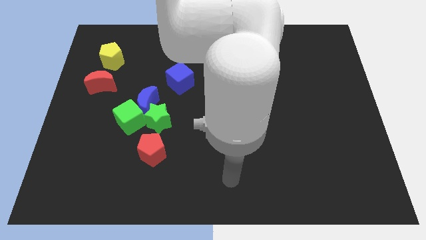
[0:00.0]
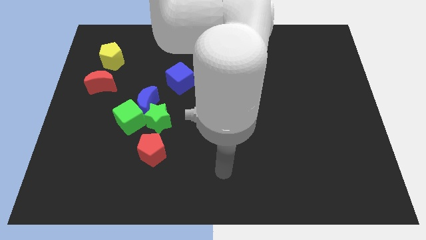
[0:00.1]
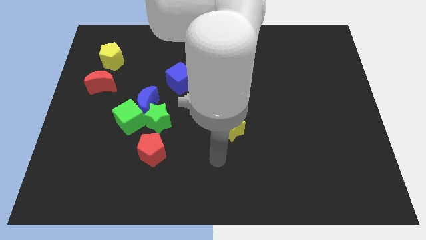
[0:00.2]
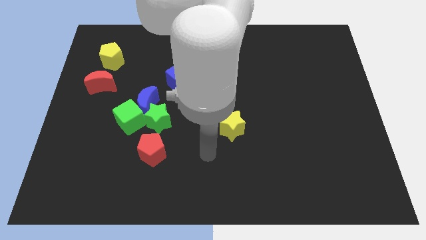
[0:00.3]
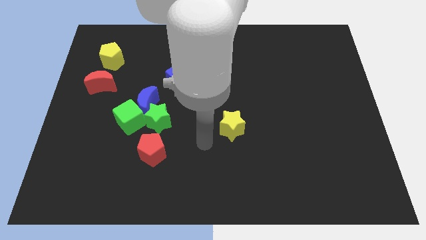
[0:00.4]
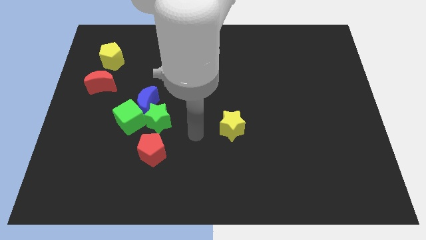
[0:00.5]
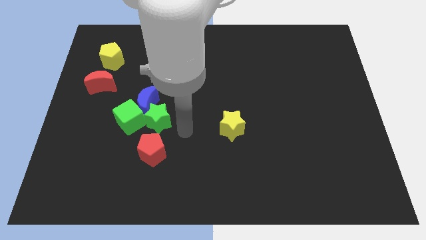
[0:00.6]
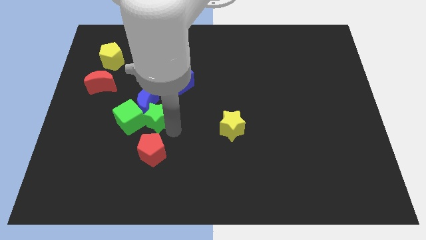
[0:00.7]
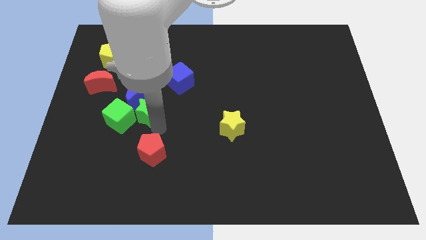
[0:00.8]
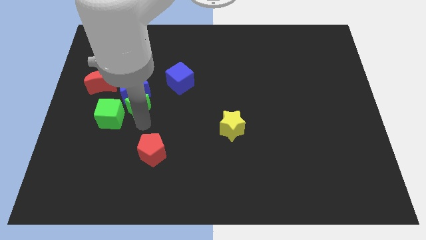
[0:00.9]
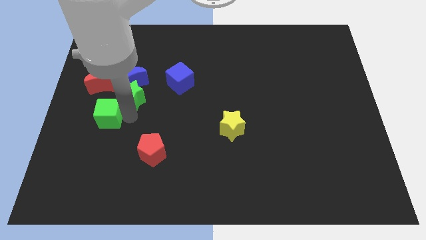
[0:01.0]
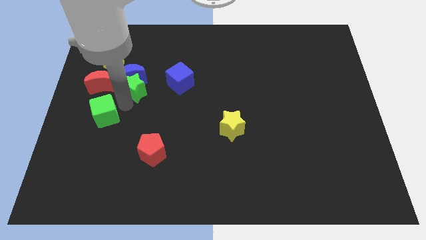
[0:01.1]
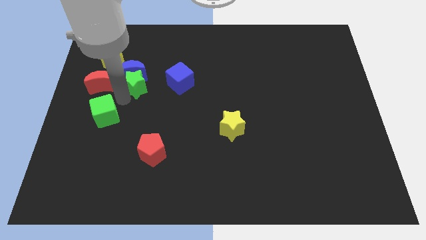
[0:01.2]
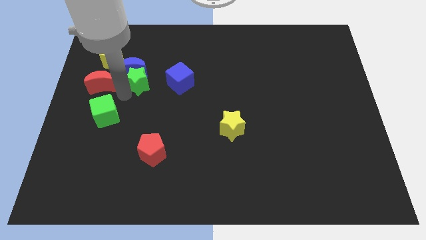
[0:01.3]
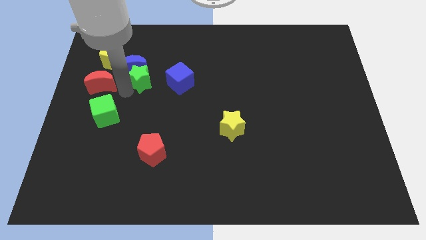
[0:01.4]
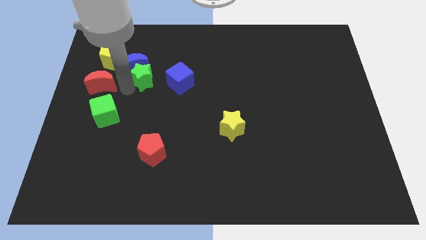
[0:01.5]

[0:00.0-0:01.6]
separate the blue moon from the green star and green cube

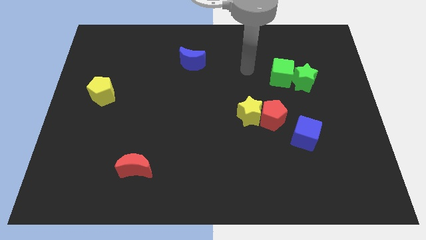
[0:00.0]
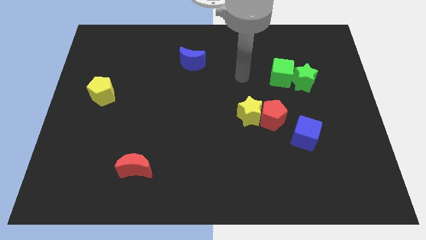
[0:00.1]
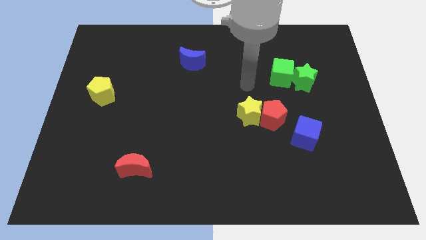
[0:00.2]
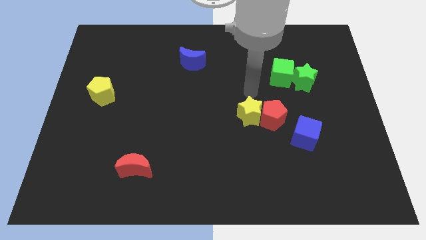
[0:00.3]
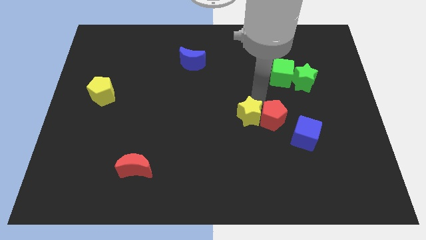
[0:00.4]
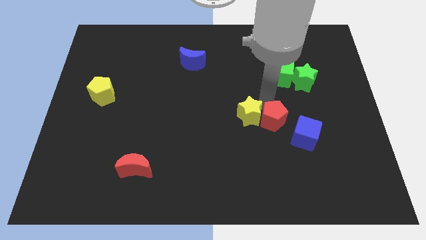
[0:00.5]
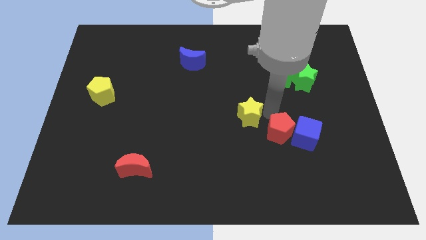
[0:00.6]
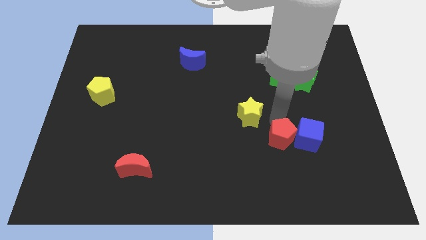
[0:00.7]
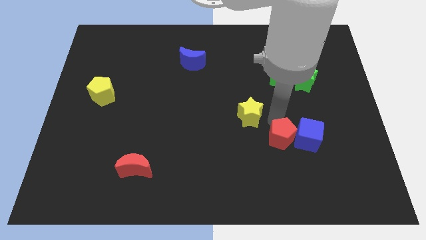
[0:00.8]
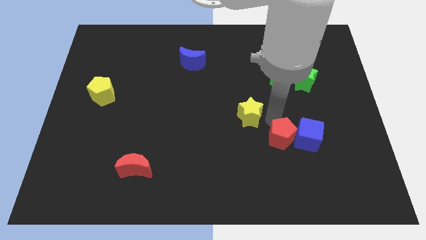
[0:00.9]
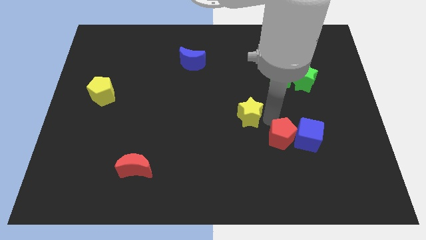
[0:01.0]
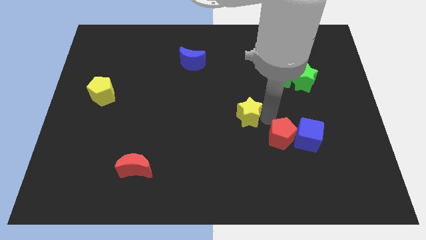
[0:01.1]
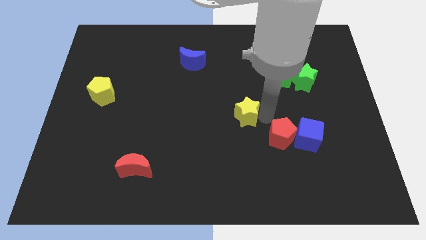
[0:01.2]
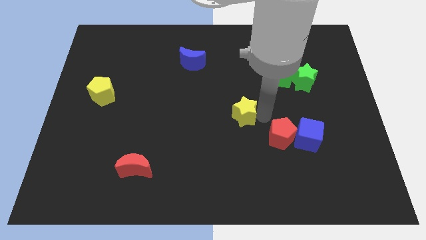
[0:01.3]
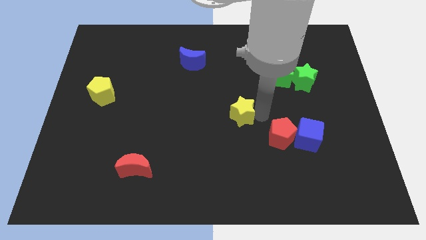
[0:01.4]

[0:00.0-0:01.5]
separate the yellow star from the red pentagon

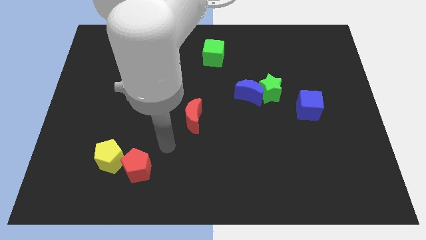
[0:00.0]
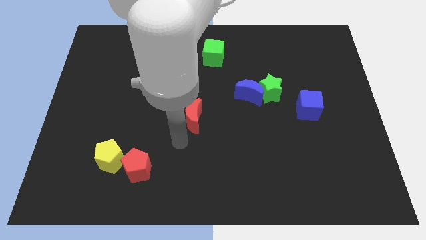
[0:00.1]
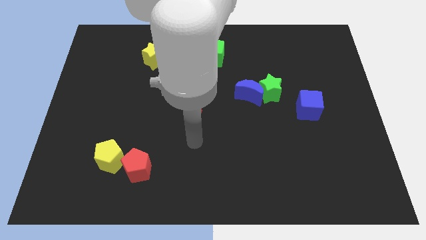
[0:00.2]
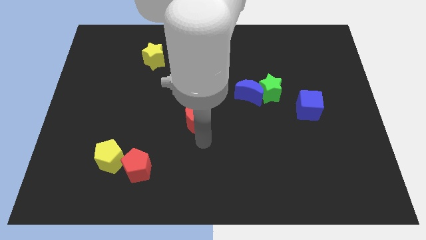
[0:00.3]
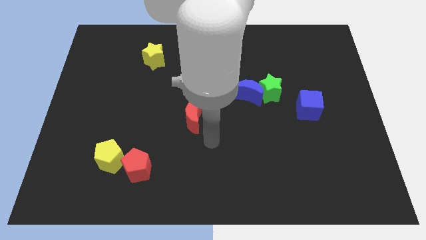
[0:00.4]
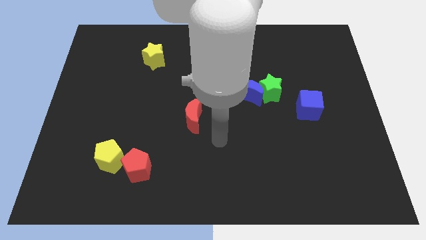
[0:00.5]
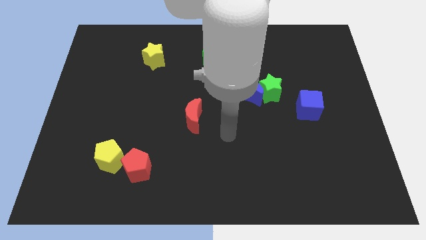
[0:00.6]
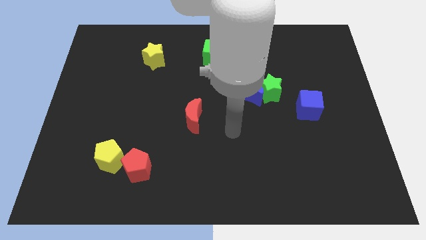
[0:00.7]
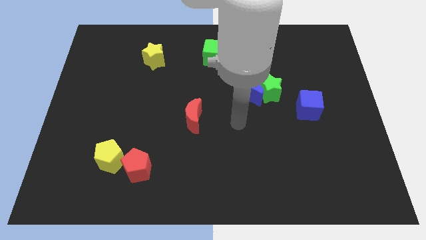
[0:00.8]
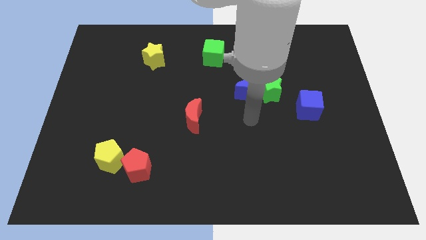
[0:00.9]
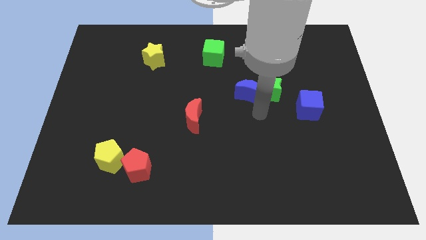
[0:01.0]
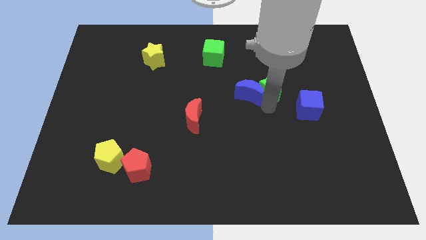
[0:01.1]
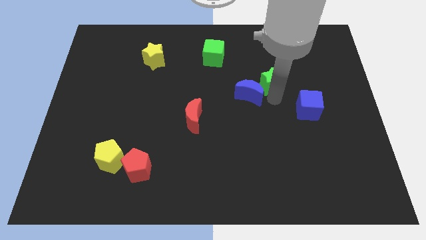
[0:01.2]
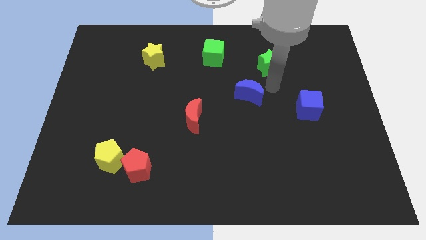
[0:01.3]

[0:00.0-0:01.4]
move the blue moon away from the green star

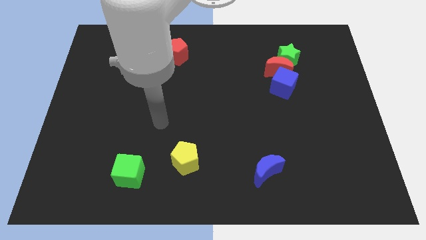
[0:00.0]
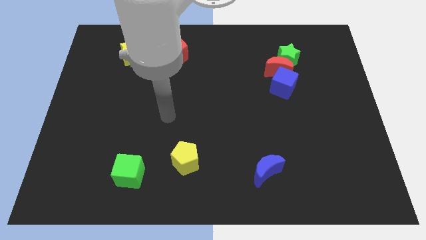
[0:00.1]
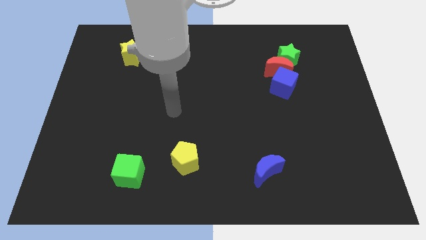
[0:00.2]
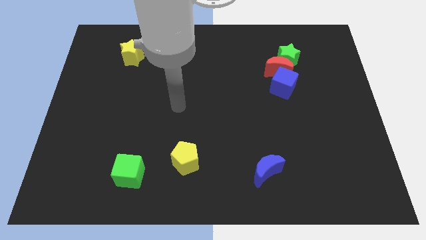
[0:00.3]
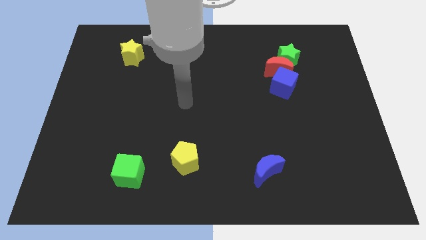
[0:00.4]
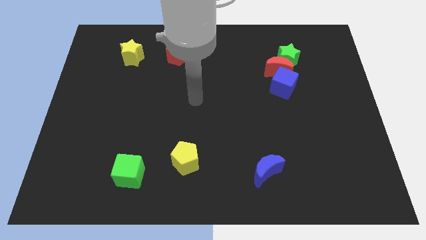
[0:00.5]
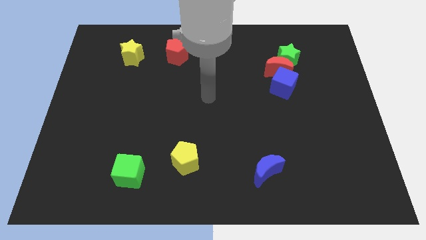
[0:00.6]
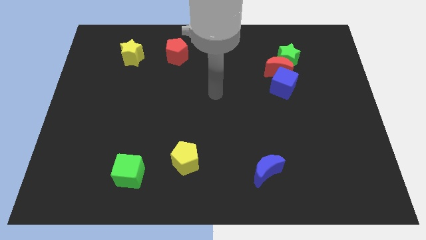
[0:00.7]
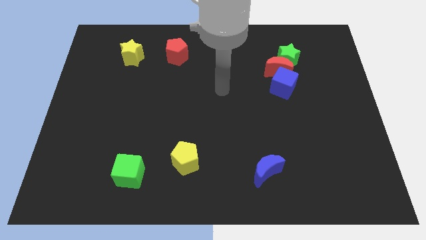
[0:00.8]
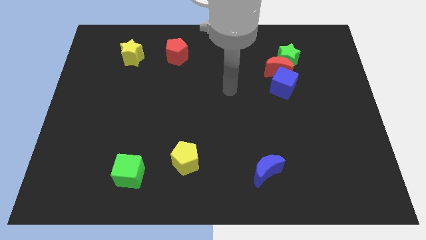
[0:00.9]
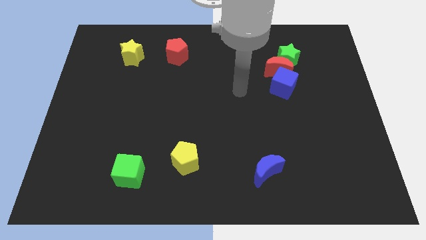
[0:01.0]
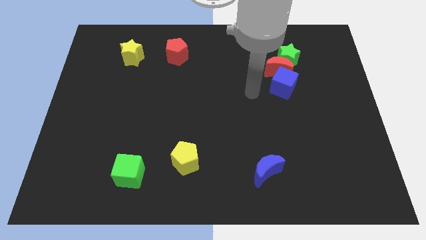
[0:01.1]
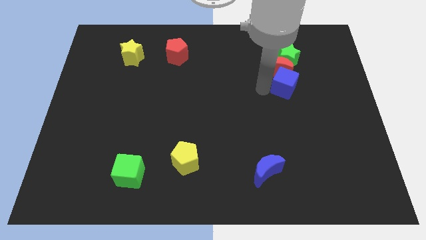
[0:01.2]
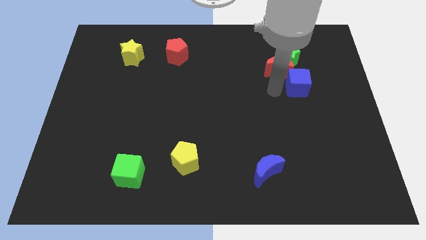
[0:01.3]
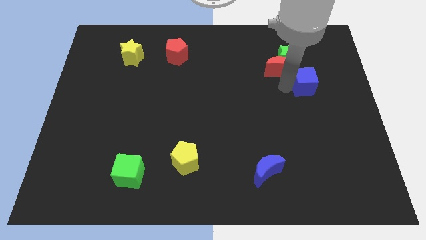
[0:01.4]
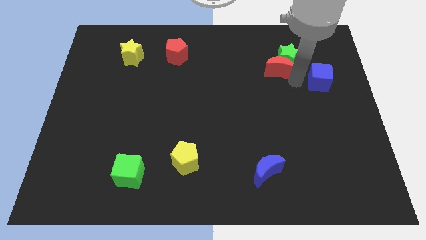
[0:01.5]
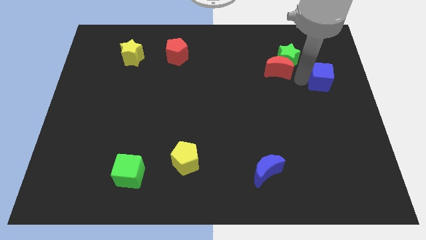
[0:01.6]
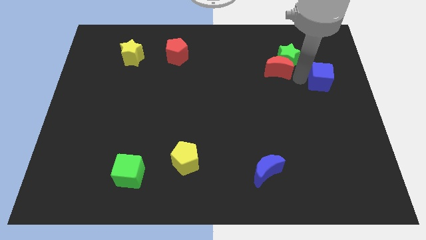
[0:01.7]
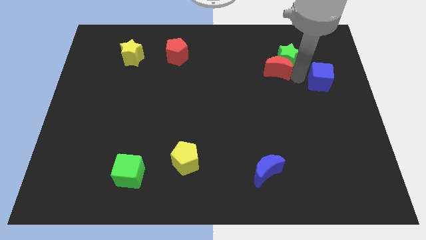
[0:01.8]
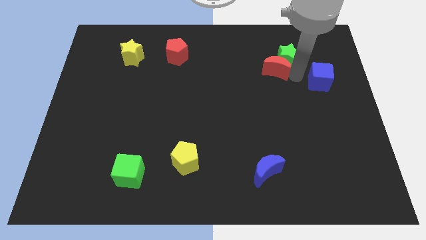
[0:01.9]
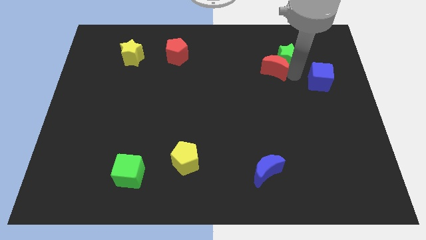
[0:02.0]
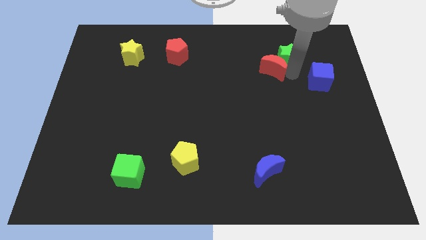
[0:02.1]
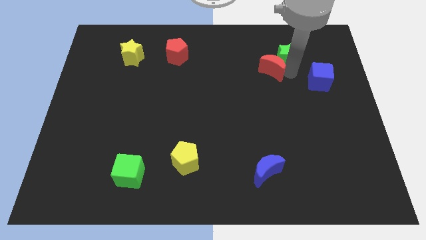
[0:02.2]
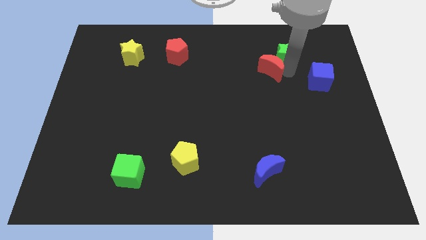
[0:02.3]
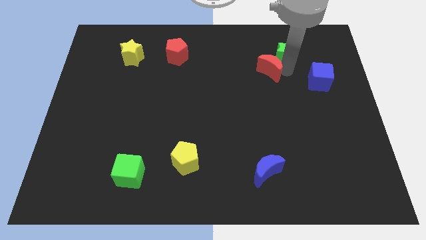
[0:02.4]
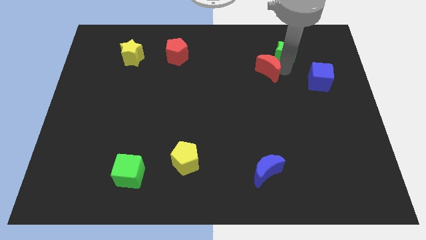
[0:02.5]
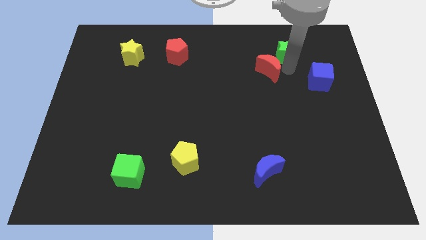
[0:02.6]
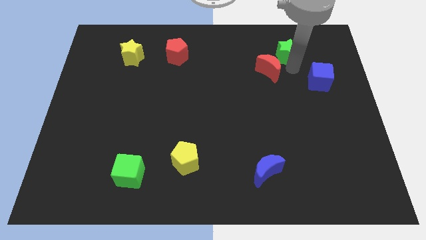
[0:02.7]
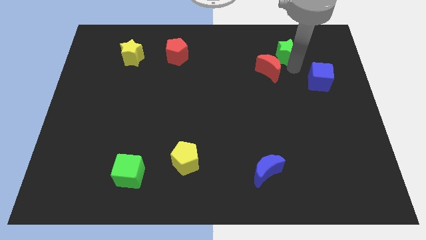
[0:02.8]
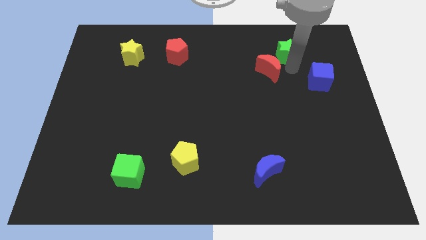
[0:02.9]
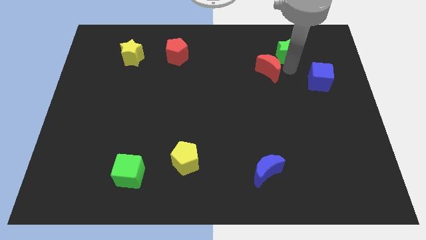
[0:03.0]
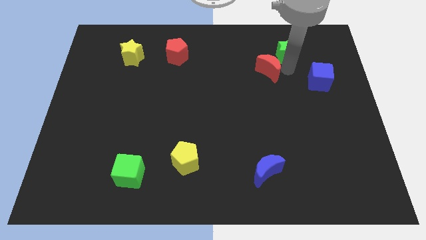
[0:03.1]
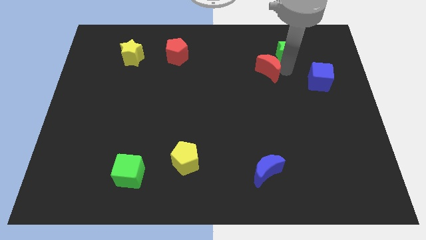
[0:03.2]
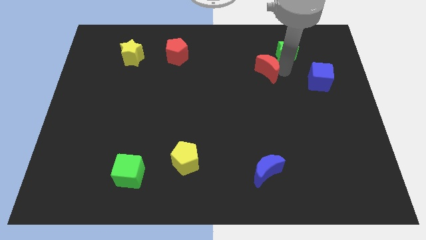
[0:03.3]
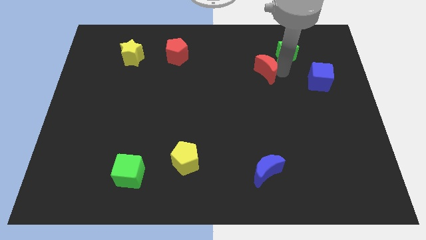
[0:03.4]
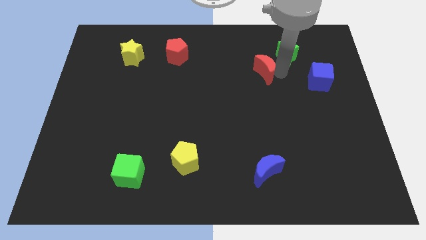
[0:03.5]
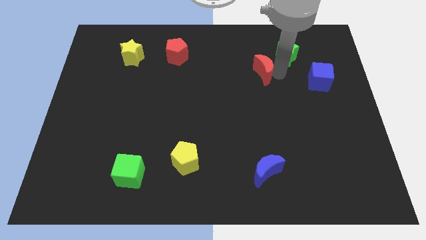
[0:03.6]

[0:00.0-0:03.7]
pull the red moon apart from the green star and blue cube

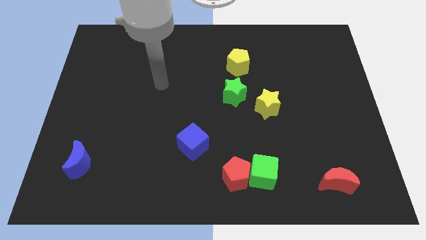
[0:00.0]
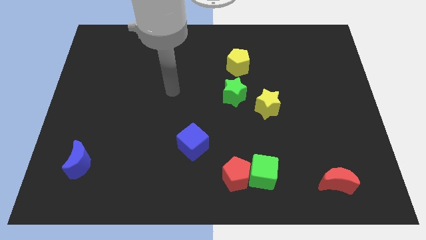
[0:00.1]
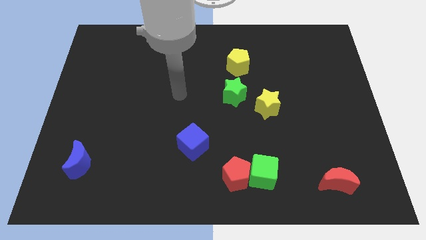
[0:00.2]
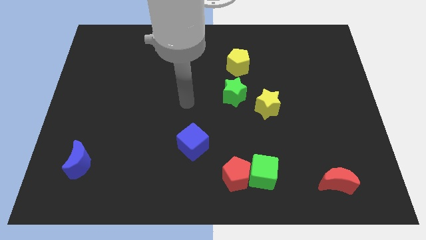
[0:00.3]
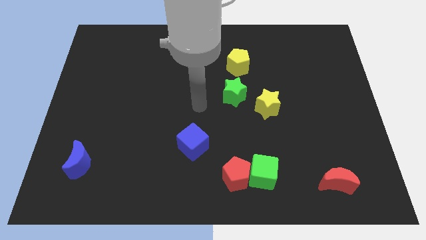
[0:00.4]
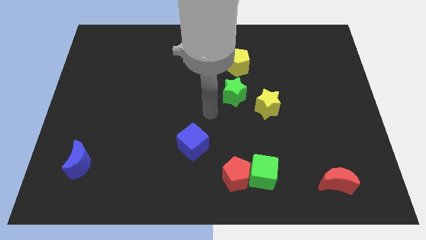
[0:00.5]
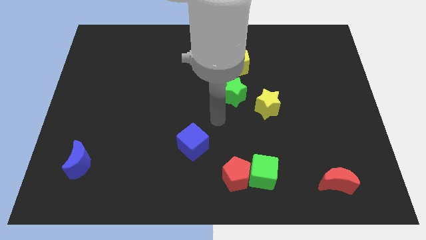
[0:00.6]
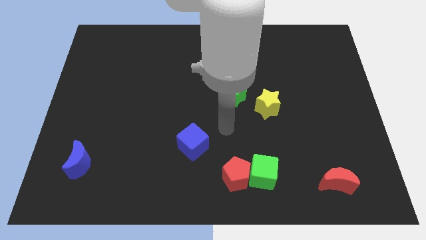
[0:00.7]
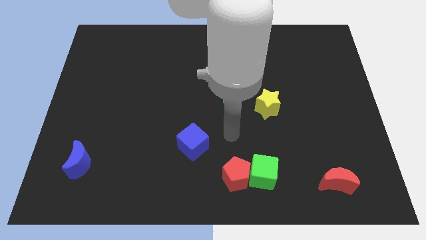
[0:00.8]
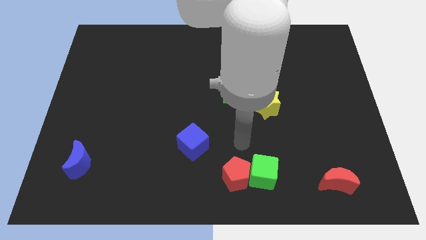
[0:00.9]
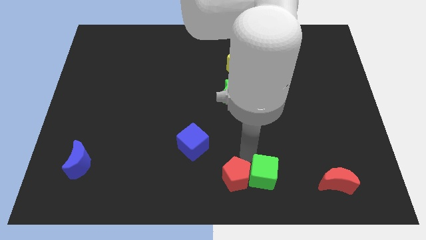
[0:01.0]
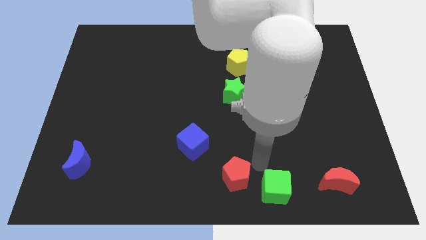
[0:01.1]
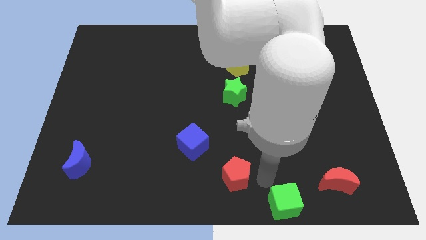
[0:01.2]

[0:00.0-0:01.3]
separate the red pentagon from the green cube
